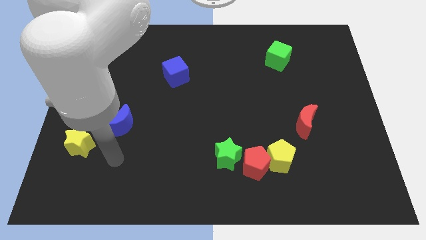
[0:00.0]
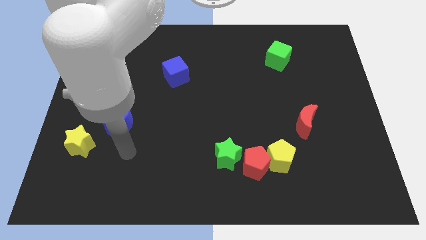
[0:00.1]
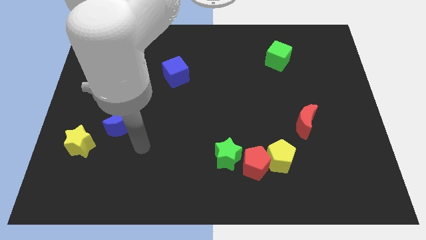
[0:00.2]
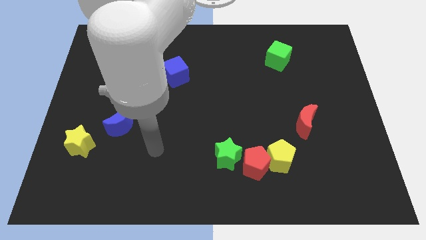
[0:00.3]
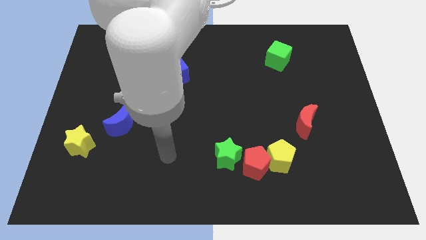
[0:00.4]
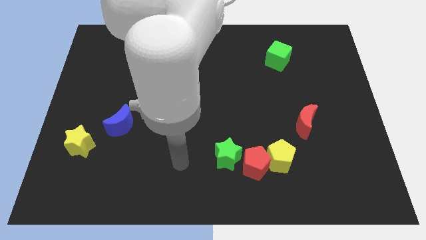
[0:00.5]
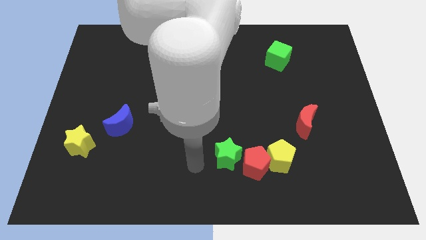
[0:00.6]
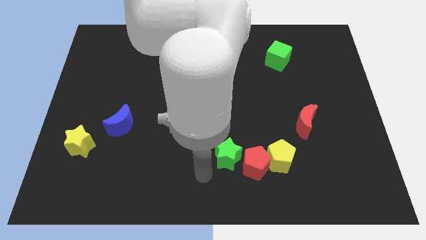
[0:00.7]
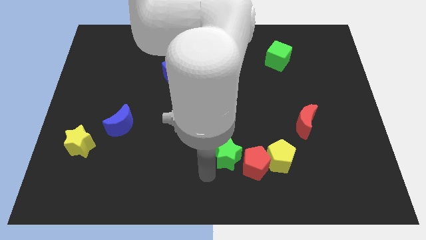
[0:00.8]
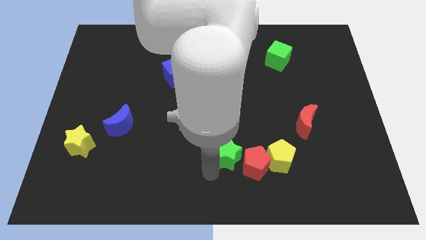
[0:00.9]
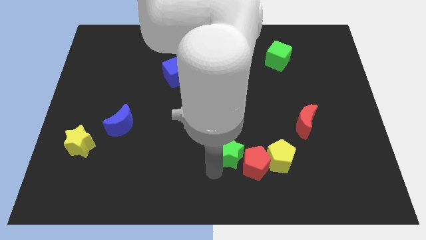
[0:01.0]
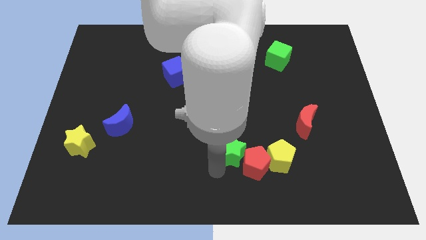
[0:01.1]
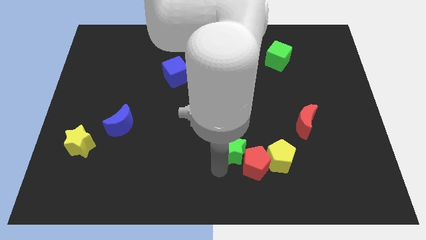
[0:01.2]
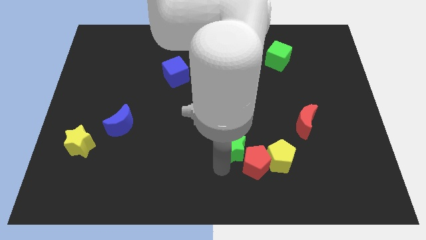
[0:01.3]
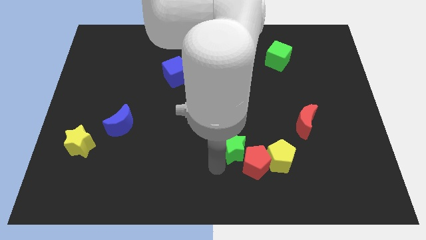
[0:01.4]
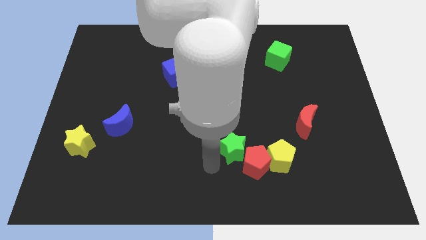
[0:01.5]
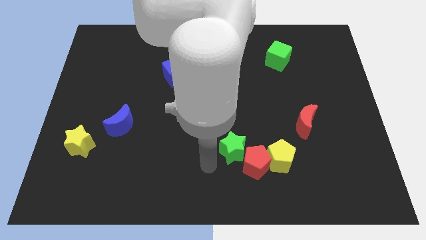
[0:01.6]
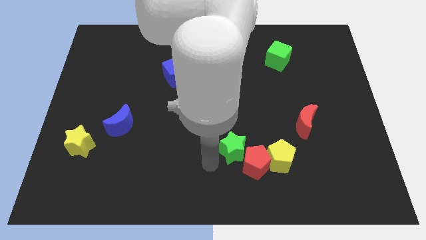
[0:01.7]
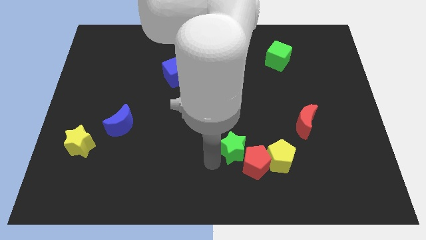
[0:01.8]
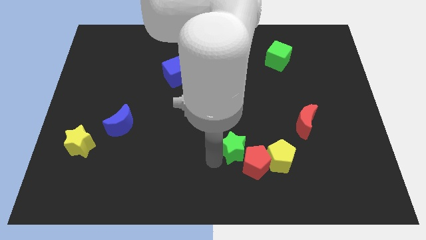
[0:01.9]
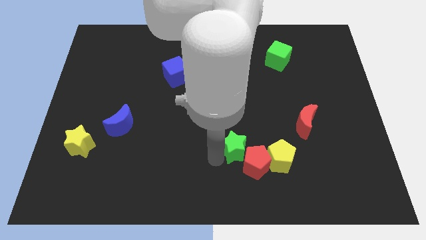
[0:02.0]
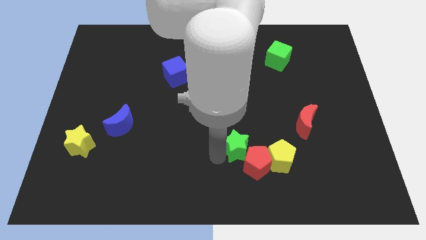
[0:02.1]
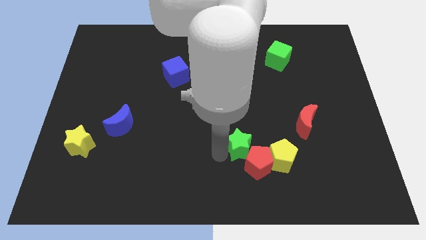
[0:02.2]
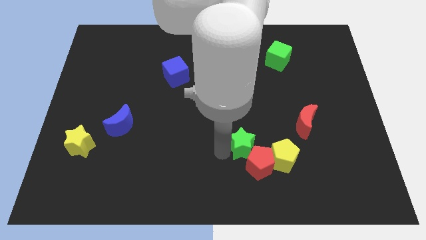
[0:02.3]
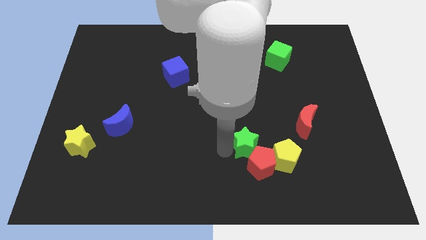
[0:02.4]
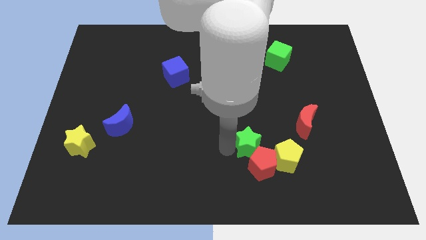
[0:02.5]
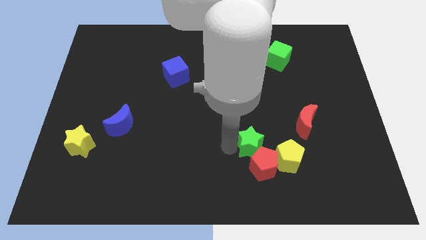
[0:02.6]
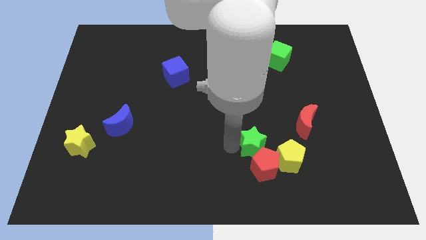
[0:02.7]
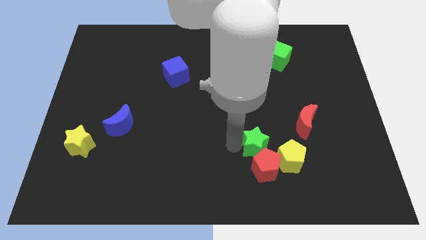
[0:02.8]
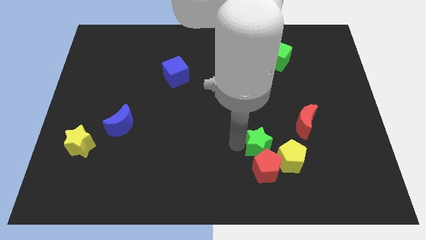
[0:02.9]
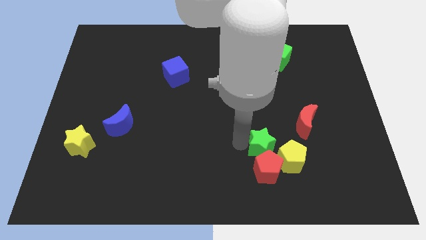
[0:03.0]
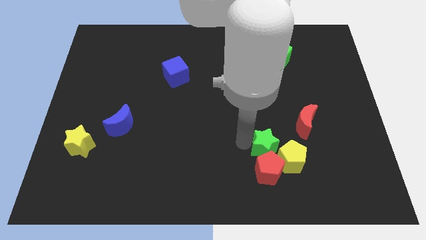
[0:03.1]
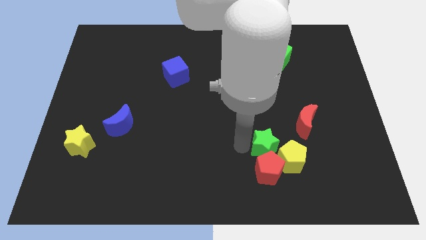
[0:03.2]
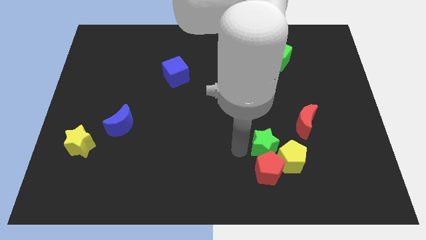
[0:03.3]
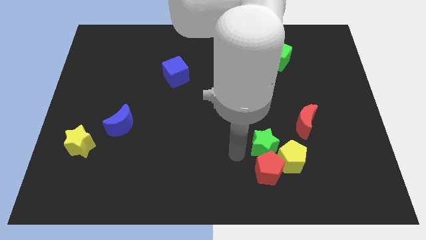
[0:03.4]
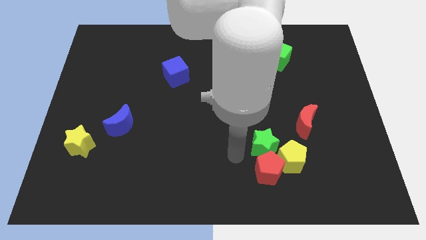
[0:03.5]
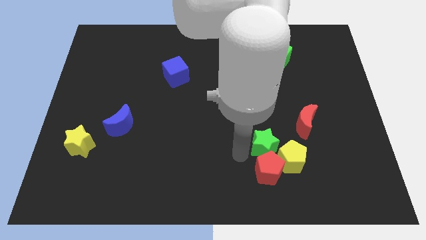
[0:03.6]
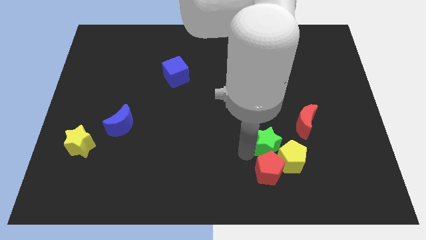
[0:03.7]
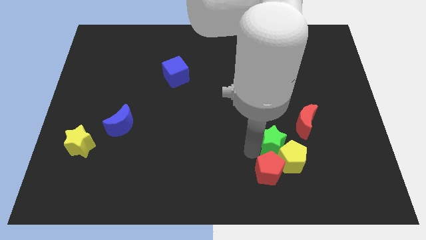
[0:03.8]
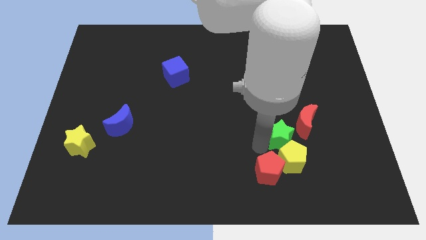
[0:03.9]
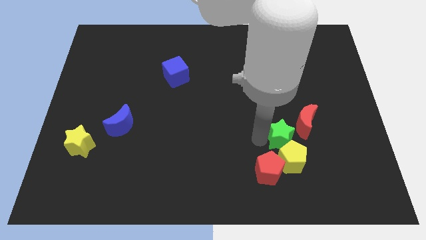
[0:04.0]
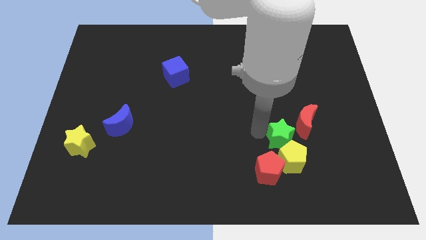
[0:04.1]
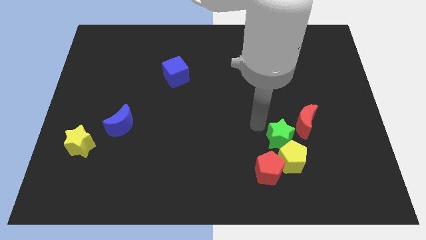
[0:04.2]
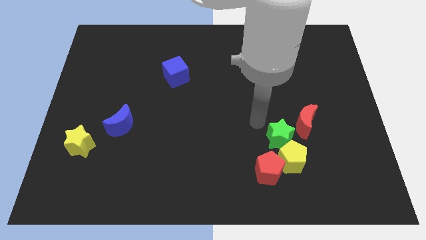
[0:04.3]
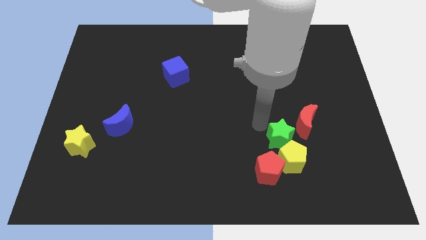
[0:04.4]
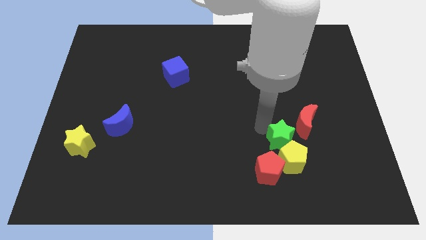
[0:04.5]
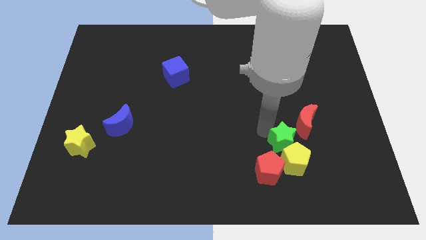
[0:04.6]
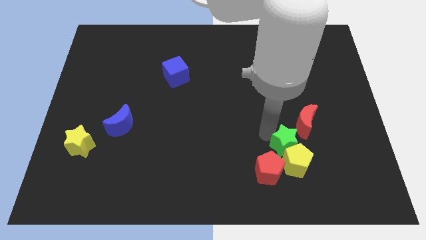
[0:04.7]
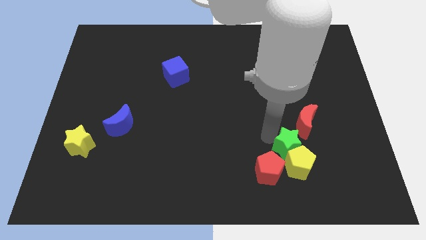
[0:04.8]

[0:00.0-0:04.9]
move the green star to the bottom side of the red moon

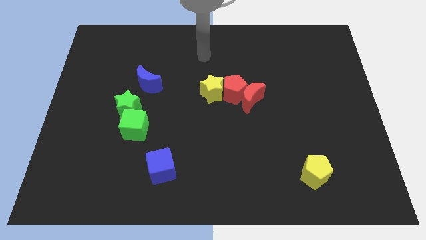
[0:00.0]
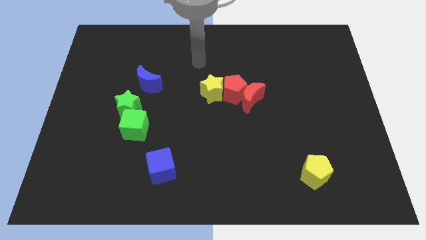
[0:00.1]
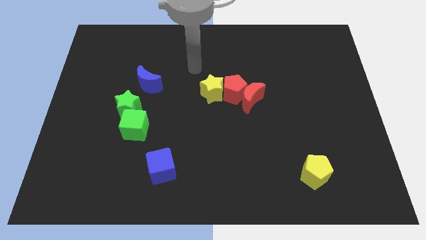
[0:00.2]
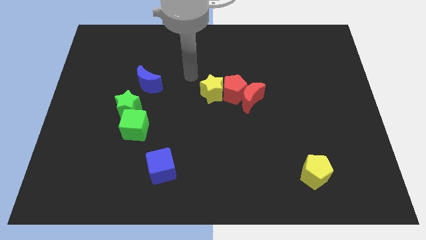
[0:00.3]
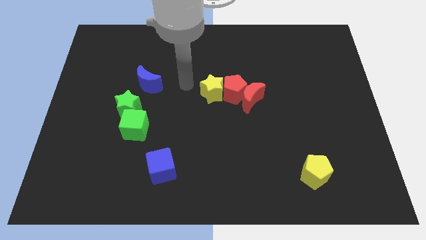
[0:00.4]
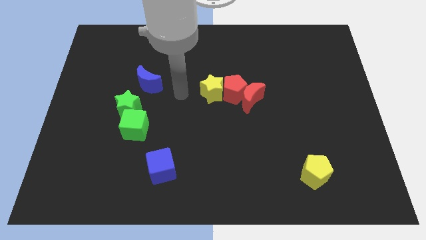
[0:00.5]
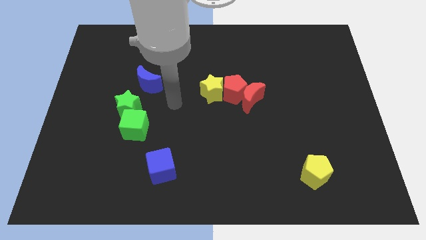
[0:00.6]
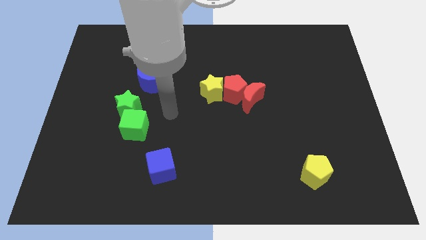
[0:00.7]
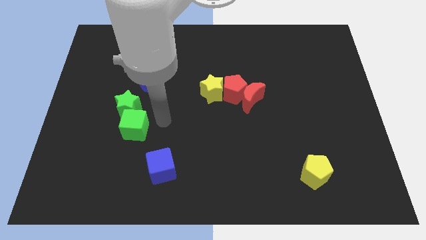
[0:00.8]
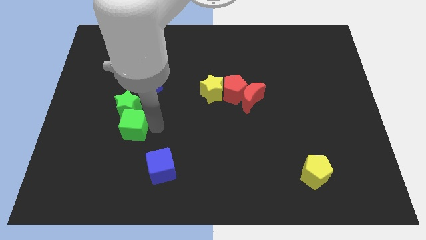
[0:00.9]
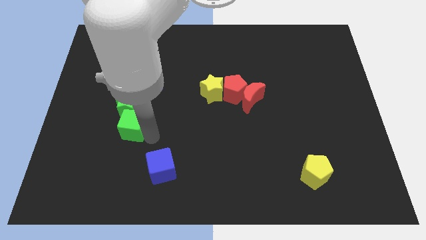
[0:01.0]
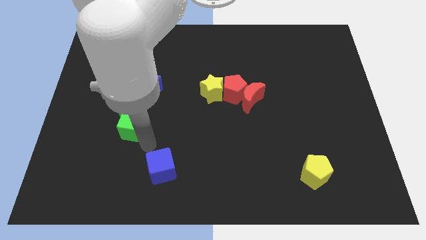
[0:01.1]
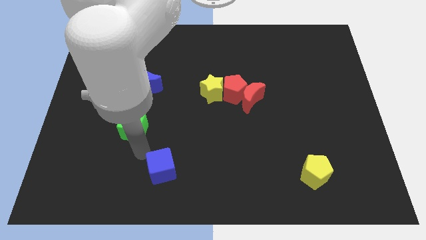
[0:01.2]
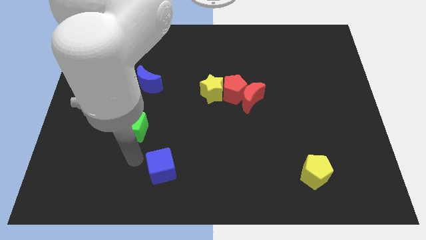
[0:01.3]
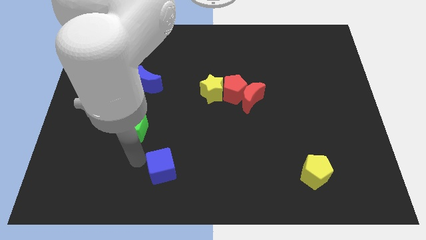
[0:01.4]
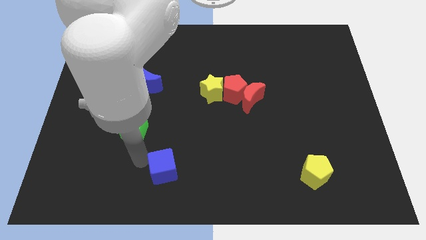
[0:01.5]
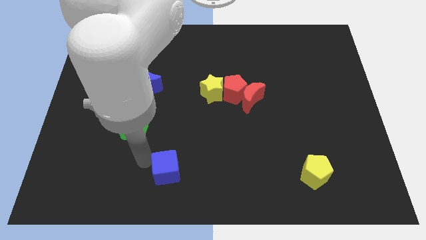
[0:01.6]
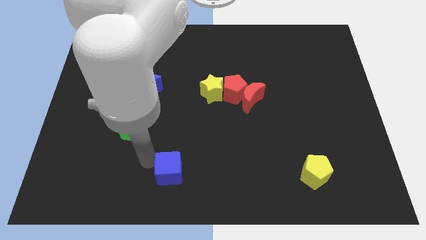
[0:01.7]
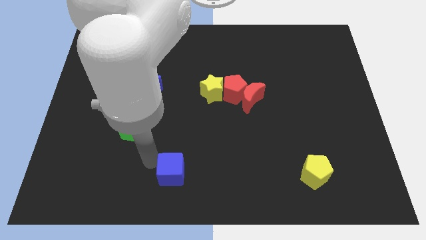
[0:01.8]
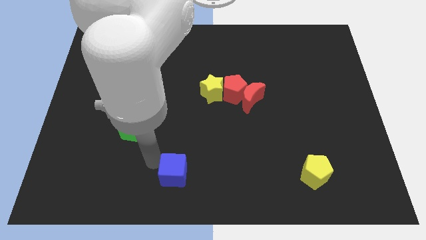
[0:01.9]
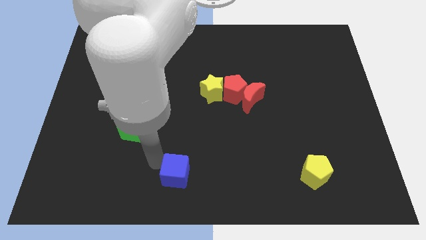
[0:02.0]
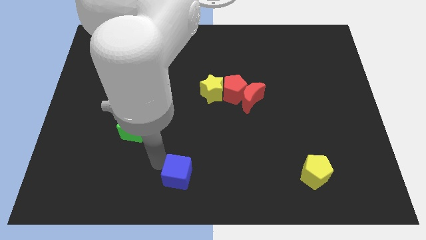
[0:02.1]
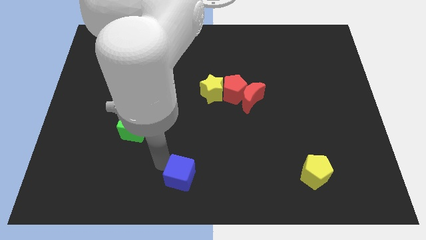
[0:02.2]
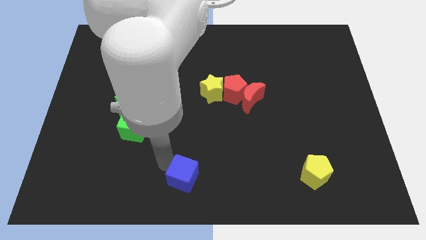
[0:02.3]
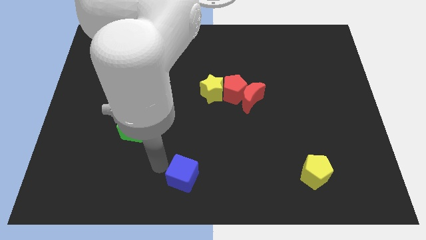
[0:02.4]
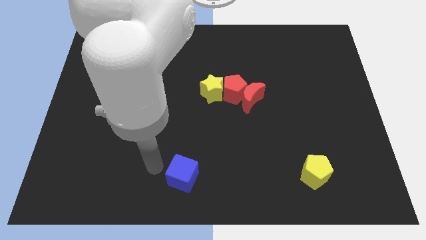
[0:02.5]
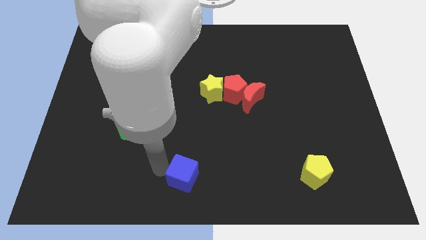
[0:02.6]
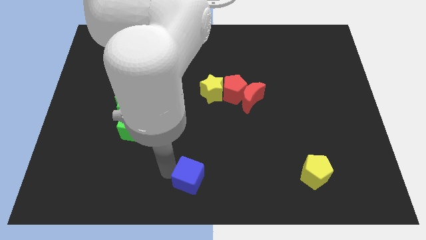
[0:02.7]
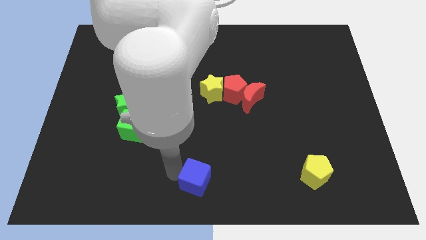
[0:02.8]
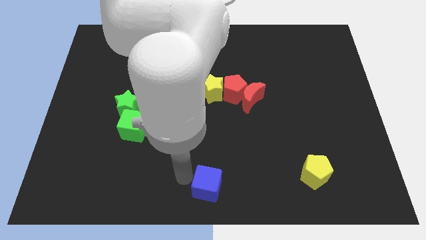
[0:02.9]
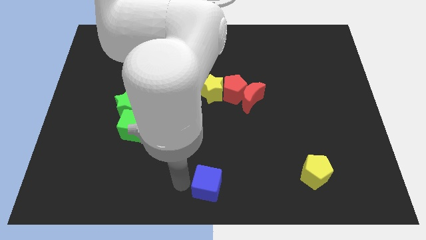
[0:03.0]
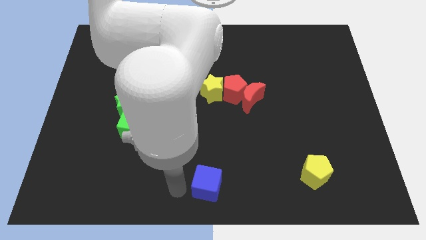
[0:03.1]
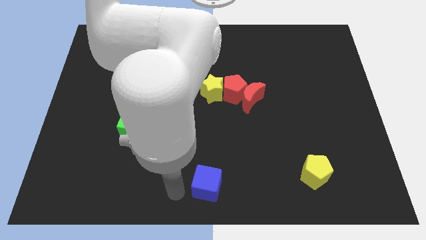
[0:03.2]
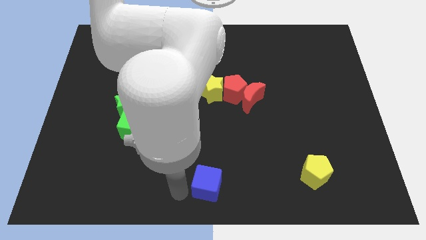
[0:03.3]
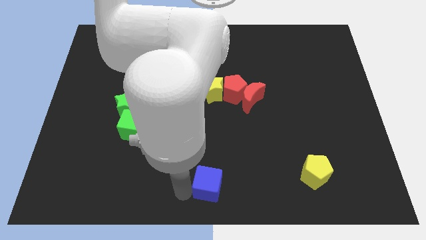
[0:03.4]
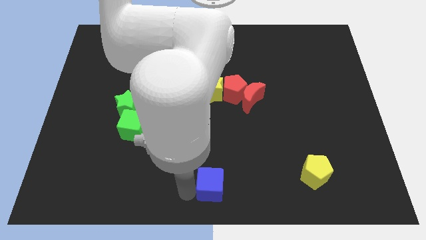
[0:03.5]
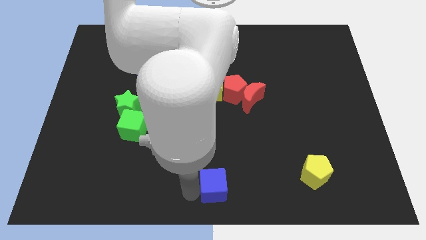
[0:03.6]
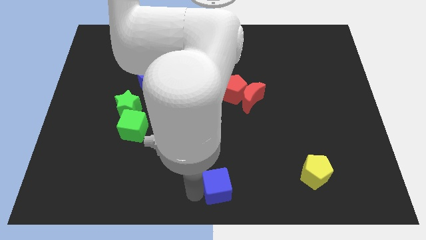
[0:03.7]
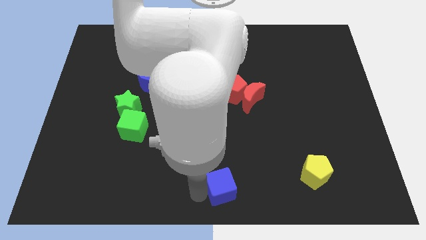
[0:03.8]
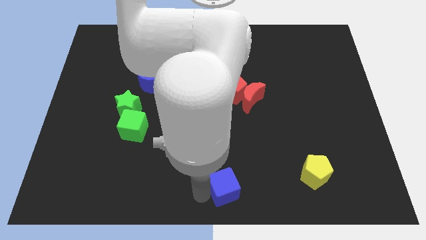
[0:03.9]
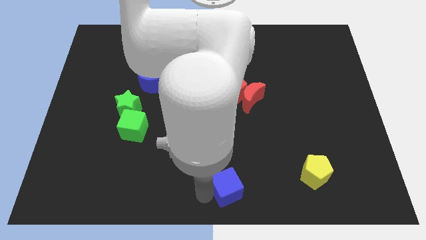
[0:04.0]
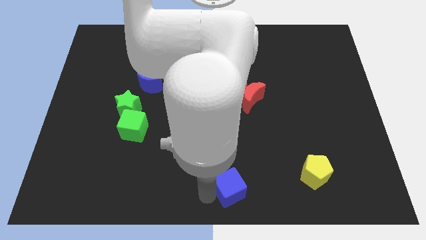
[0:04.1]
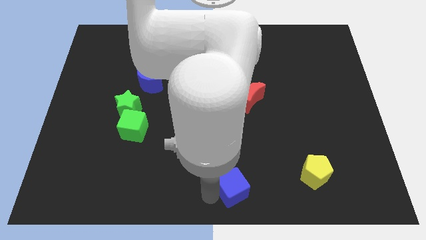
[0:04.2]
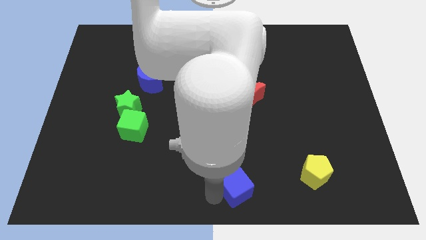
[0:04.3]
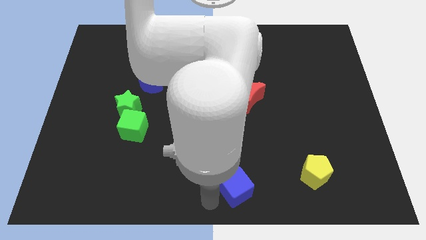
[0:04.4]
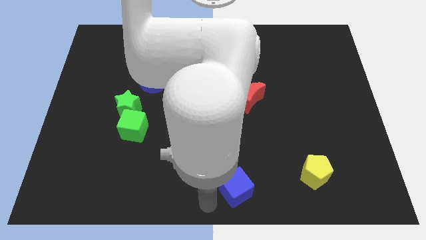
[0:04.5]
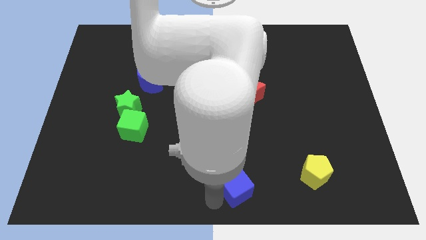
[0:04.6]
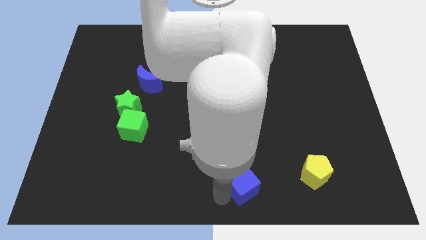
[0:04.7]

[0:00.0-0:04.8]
slide the blue cube just left of the yellow pentagon
